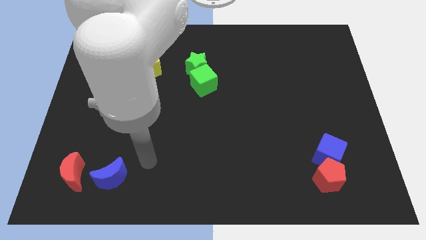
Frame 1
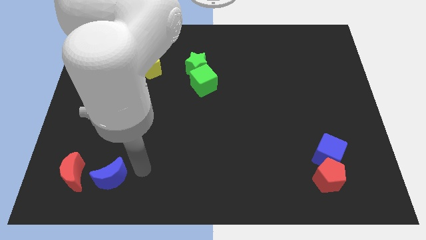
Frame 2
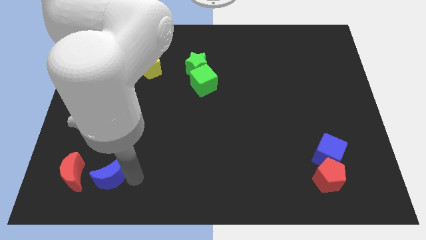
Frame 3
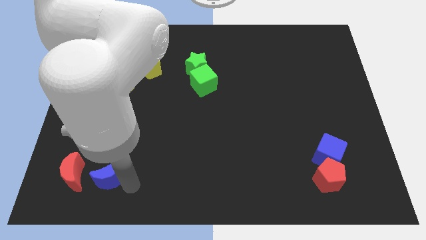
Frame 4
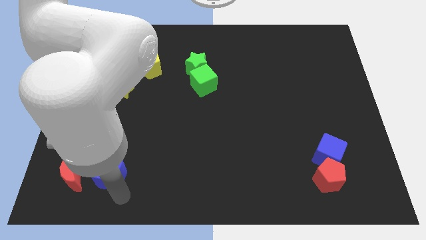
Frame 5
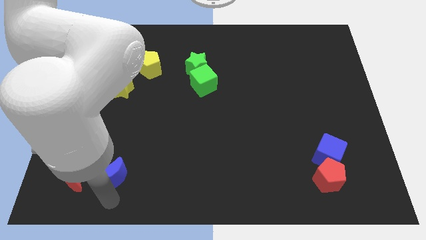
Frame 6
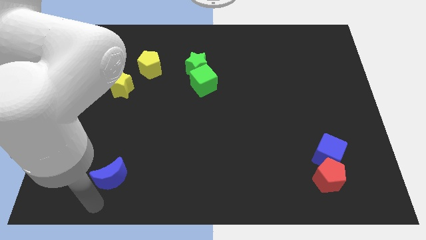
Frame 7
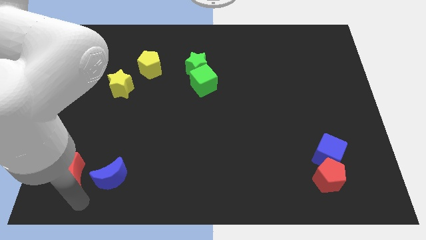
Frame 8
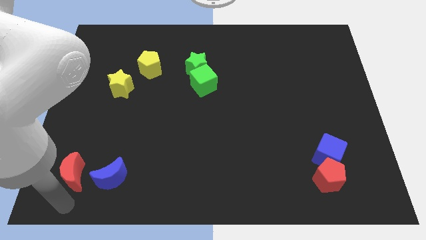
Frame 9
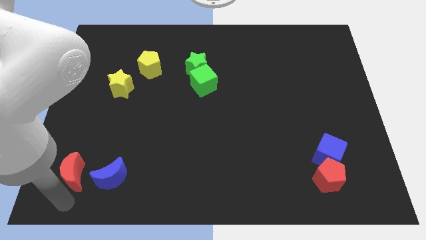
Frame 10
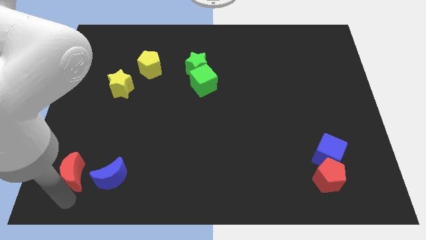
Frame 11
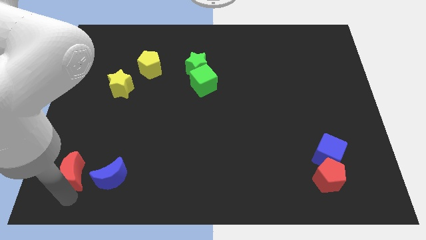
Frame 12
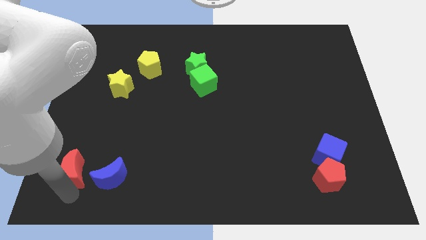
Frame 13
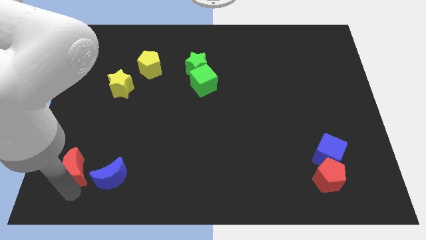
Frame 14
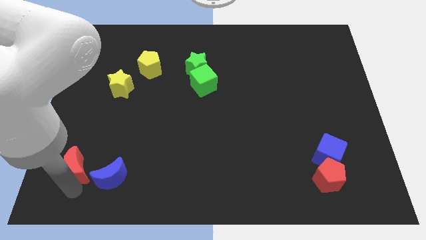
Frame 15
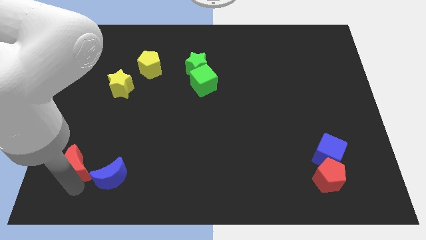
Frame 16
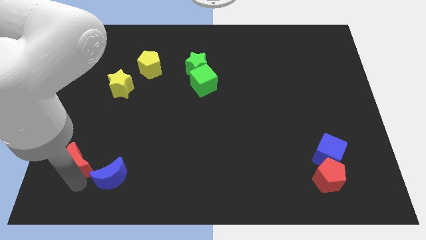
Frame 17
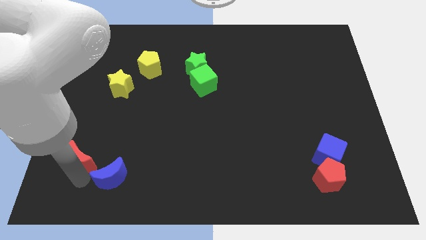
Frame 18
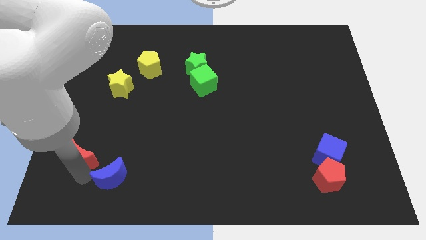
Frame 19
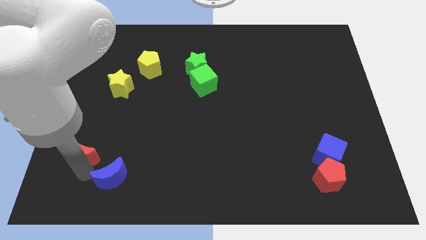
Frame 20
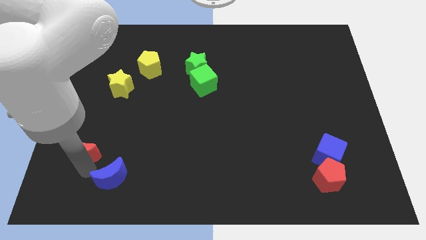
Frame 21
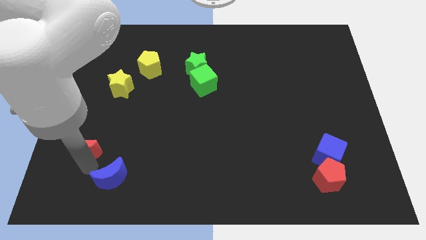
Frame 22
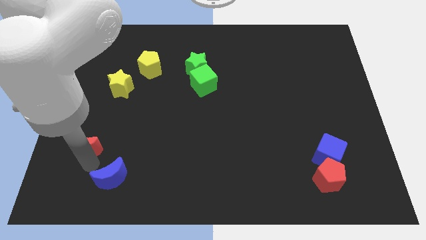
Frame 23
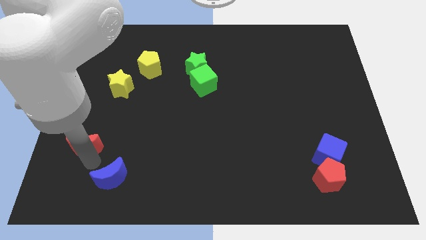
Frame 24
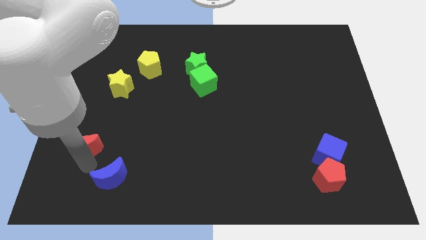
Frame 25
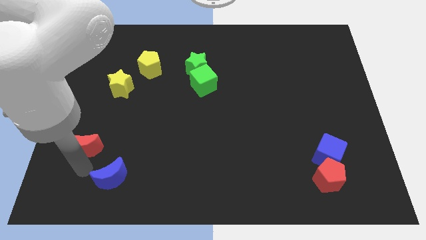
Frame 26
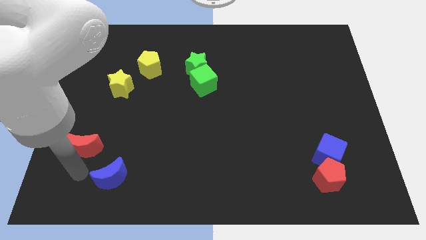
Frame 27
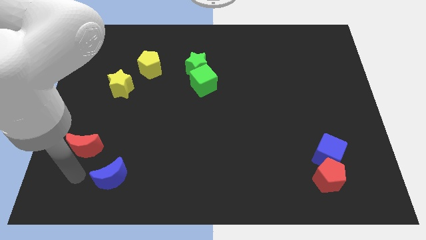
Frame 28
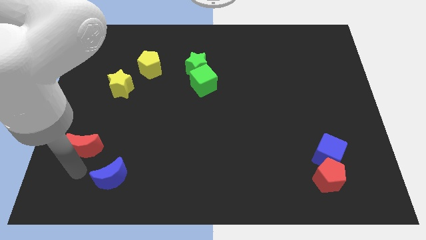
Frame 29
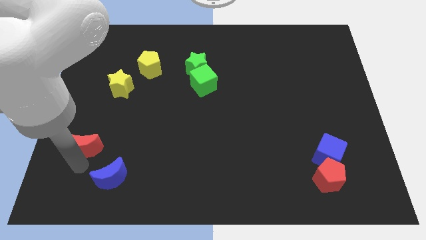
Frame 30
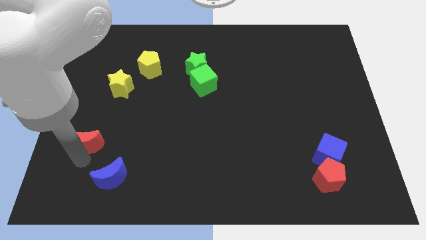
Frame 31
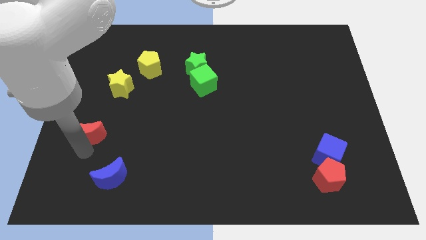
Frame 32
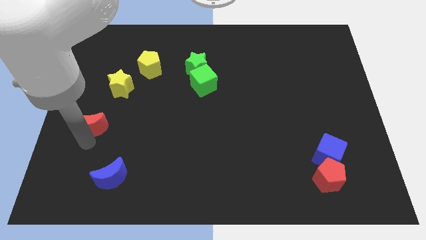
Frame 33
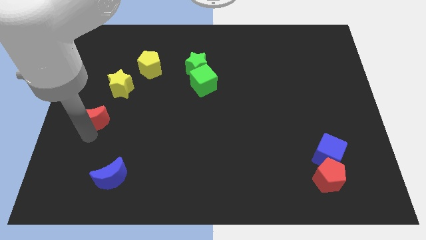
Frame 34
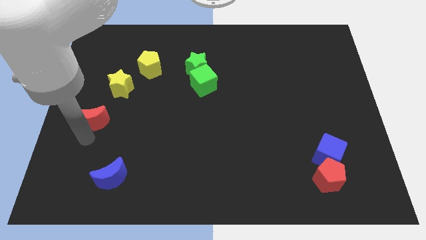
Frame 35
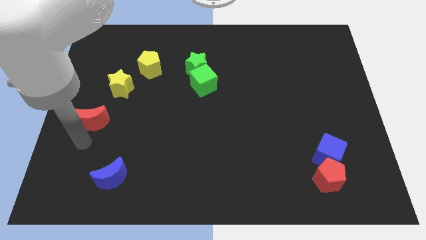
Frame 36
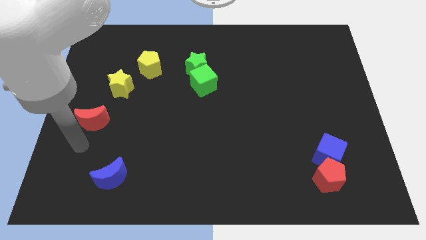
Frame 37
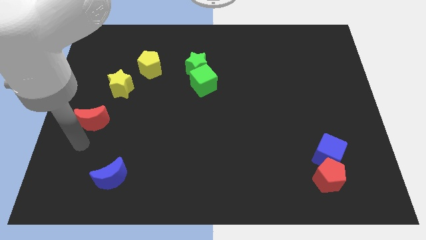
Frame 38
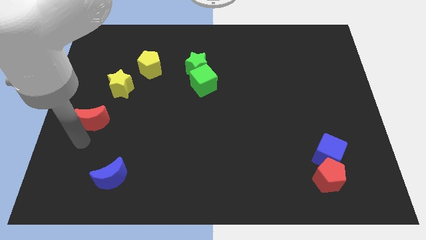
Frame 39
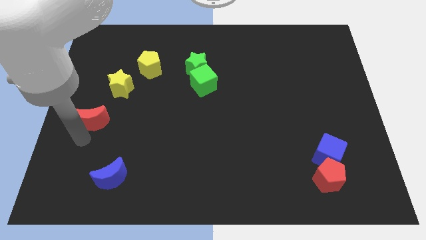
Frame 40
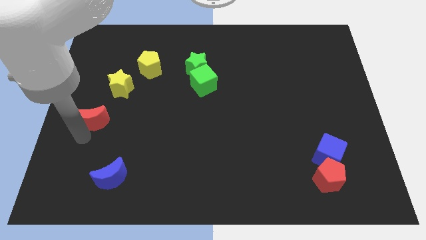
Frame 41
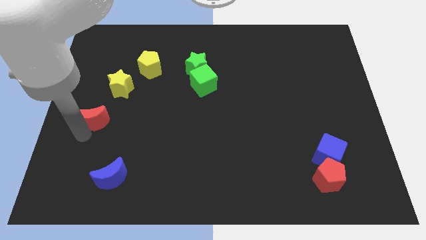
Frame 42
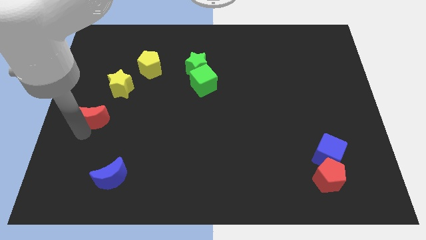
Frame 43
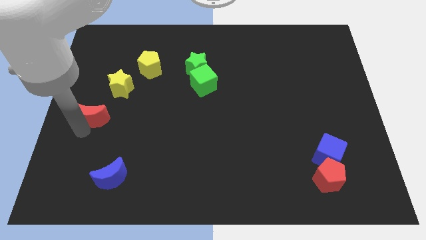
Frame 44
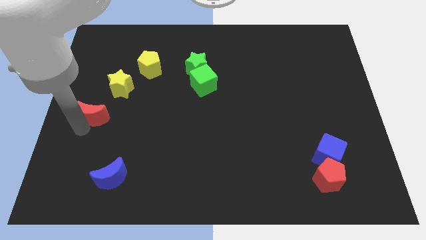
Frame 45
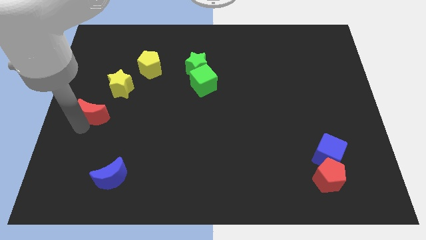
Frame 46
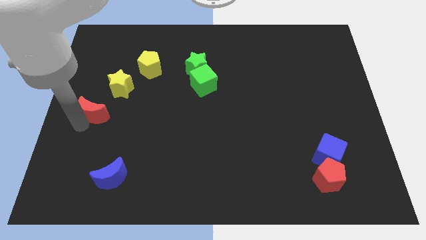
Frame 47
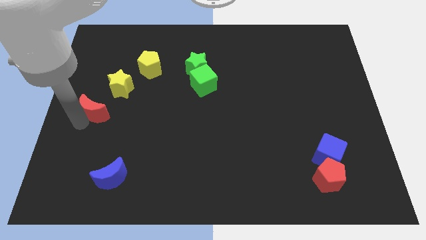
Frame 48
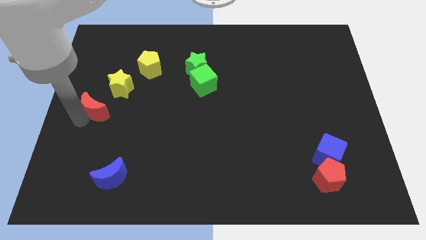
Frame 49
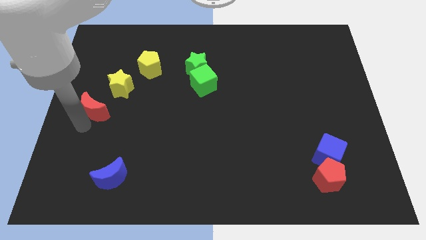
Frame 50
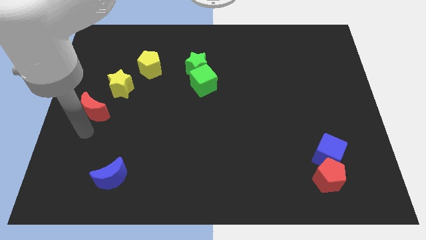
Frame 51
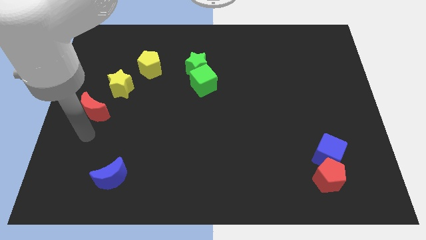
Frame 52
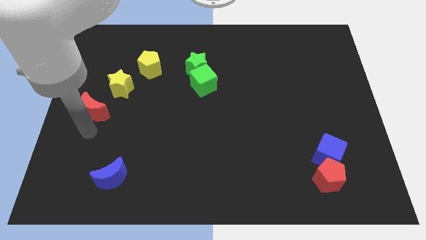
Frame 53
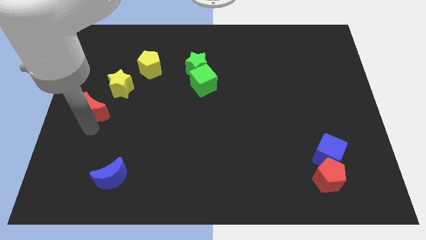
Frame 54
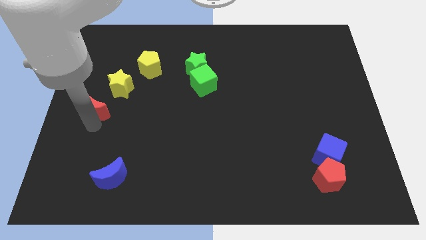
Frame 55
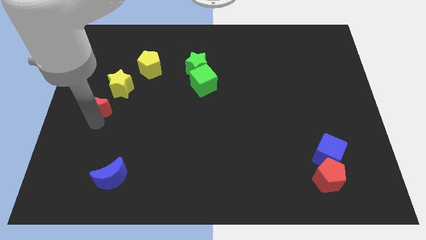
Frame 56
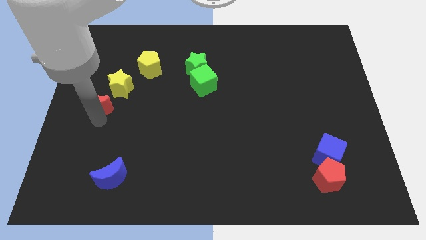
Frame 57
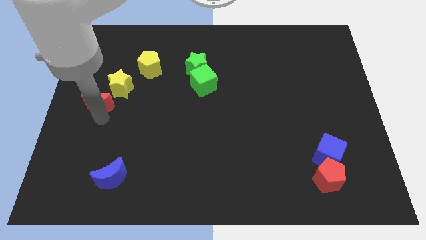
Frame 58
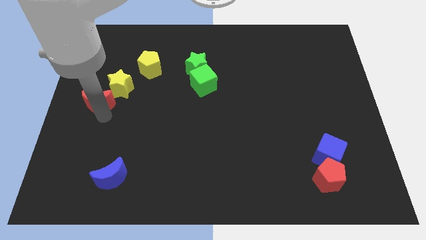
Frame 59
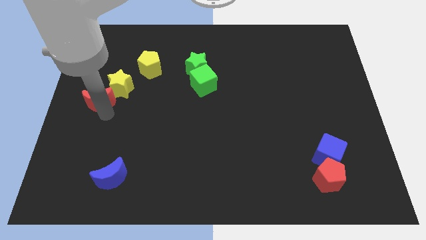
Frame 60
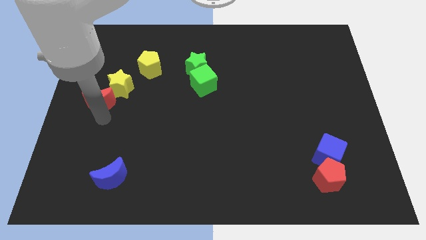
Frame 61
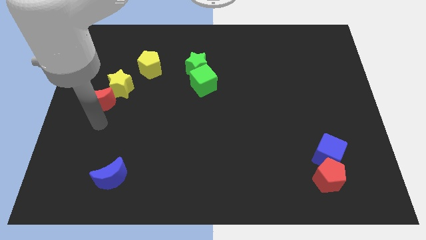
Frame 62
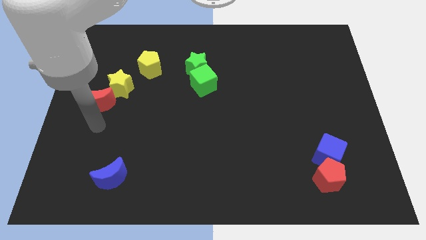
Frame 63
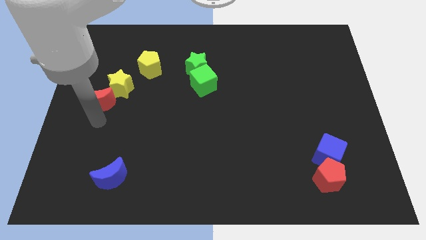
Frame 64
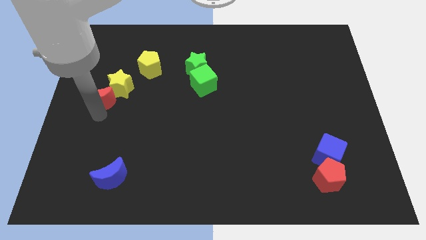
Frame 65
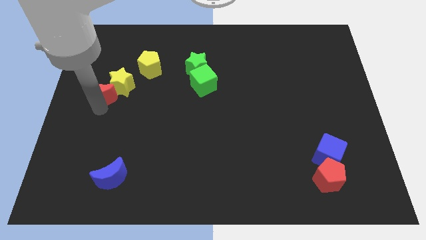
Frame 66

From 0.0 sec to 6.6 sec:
move the red moon upwards

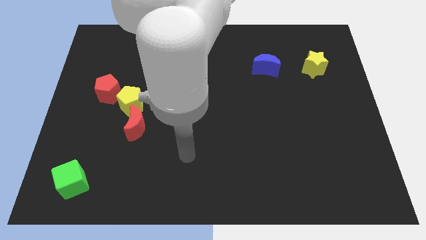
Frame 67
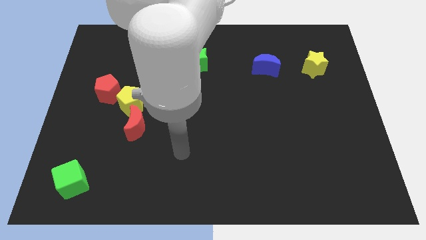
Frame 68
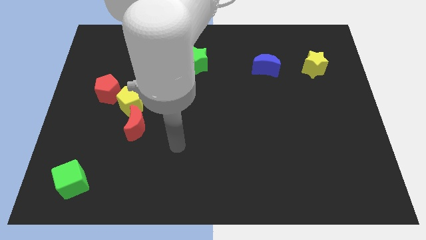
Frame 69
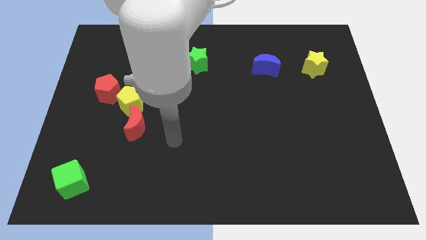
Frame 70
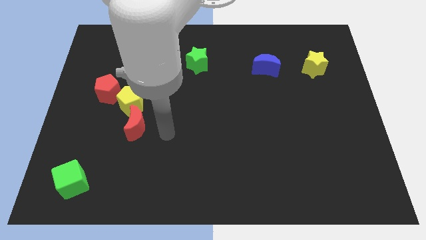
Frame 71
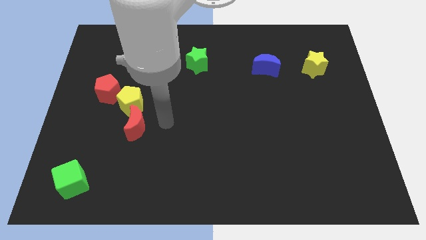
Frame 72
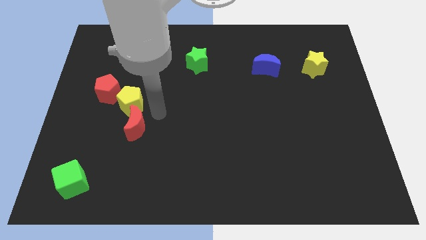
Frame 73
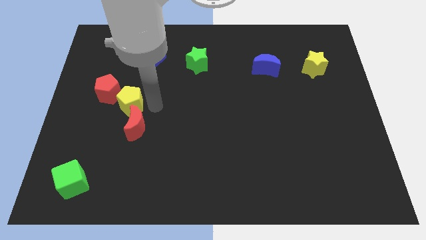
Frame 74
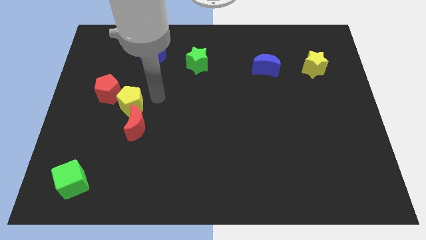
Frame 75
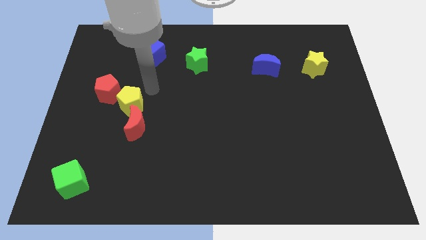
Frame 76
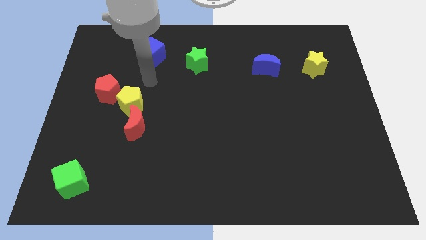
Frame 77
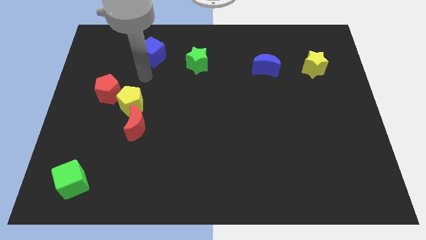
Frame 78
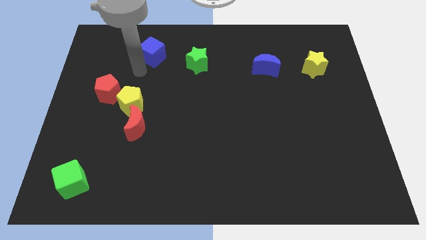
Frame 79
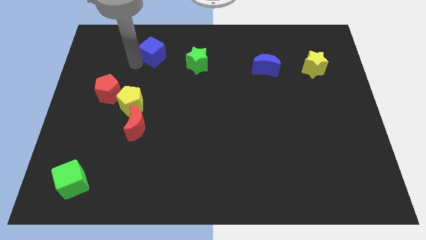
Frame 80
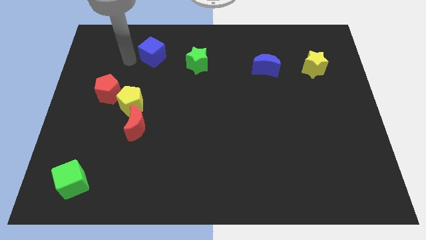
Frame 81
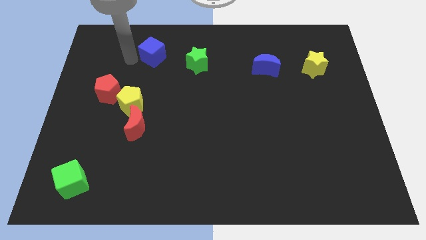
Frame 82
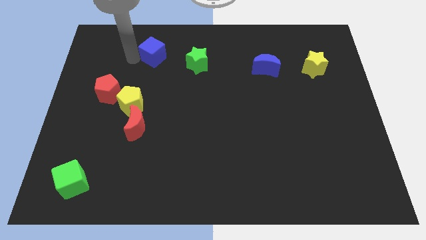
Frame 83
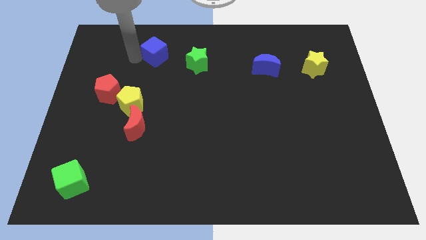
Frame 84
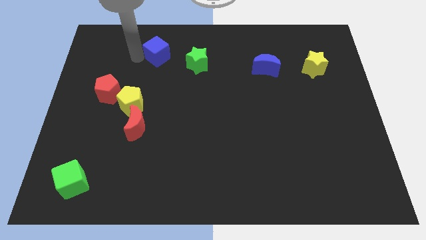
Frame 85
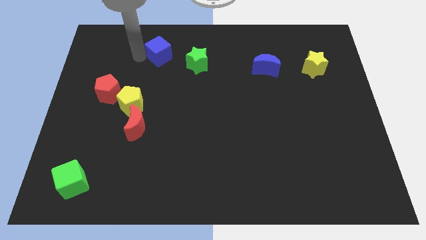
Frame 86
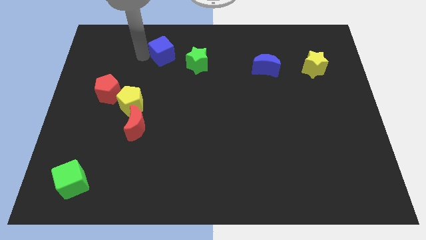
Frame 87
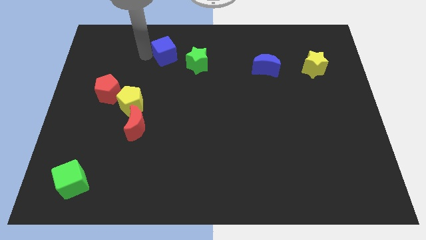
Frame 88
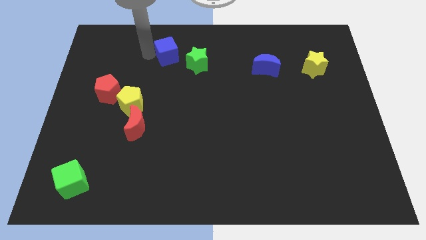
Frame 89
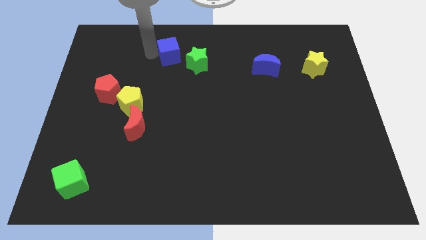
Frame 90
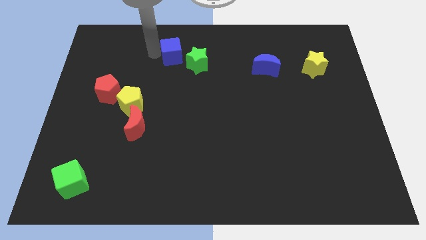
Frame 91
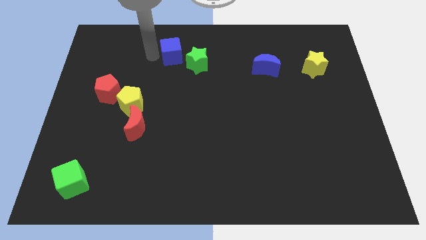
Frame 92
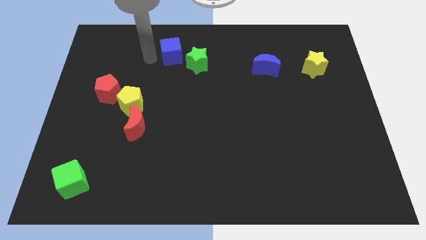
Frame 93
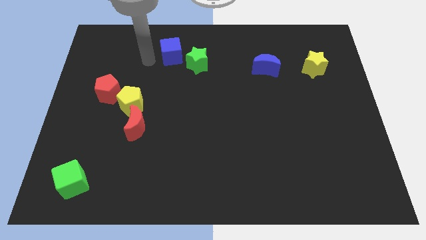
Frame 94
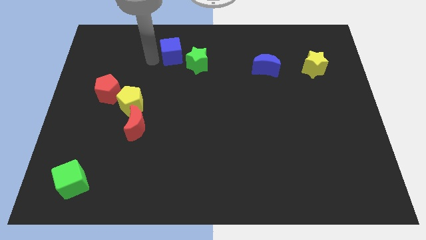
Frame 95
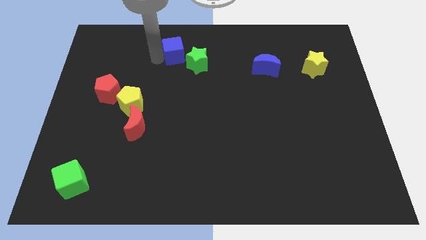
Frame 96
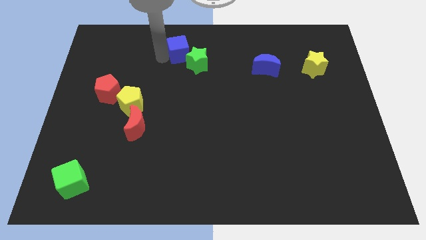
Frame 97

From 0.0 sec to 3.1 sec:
slightly push the blue cube to the right
